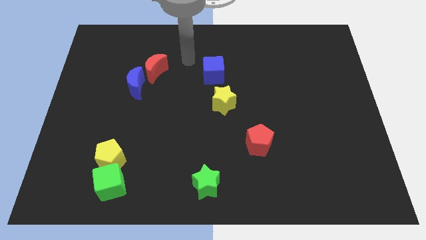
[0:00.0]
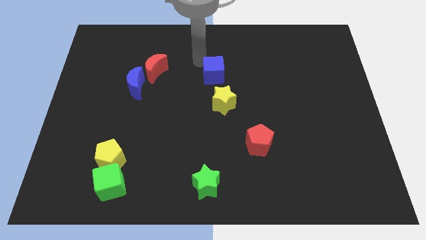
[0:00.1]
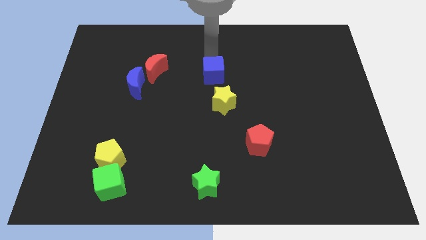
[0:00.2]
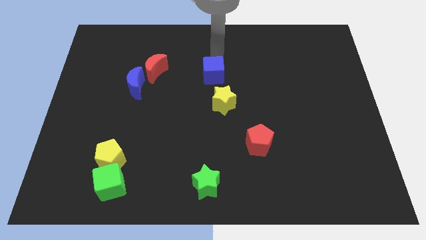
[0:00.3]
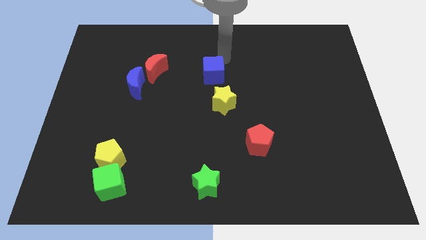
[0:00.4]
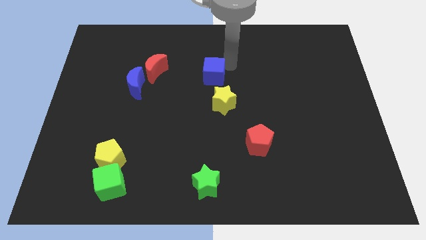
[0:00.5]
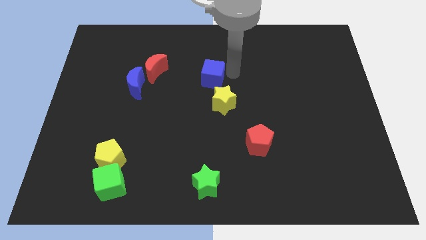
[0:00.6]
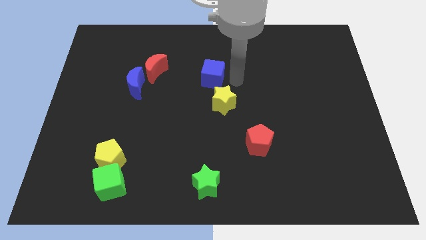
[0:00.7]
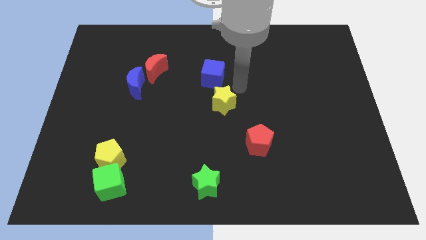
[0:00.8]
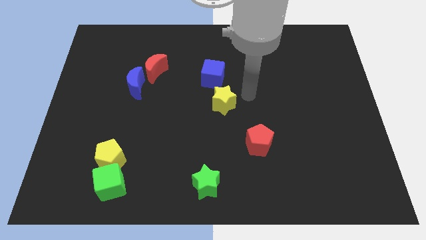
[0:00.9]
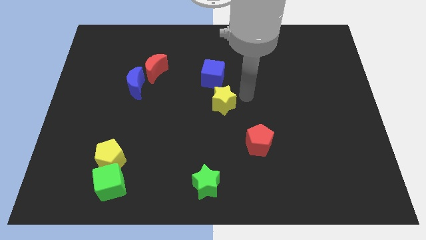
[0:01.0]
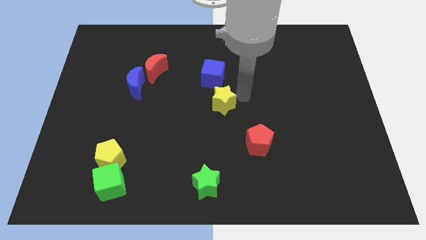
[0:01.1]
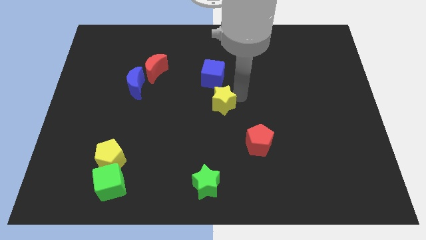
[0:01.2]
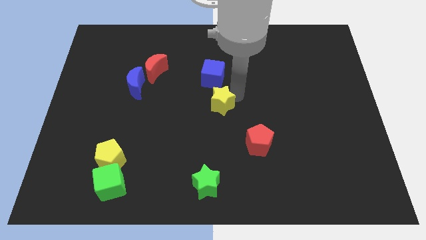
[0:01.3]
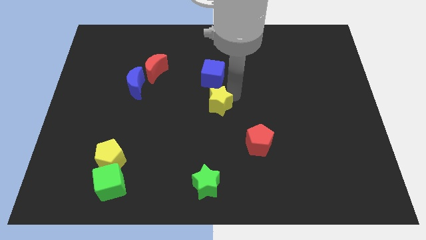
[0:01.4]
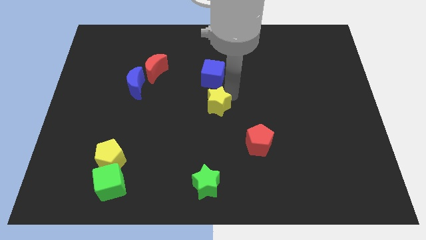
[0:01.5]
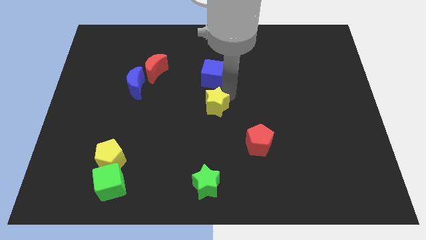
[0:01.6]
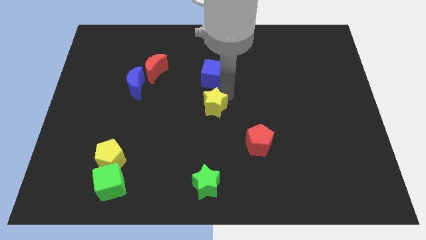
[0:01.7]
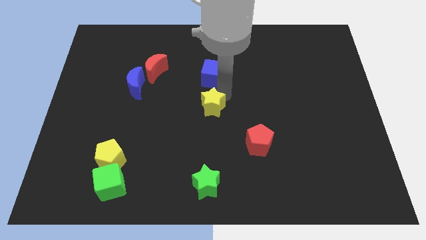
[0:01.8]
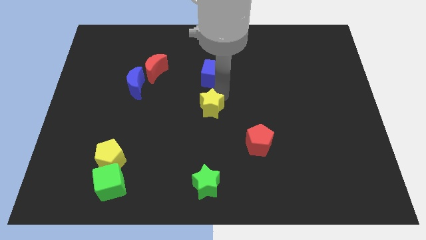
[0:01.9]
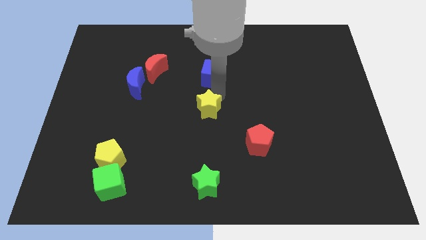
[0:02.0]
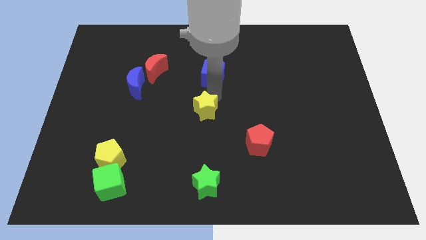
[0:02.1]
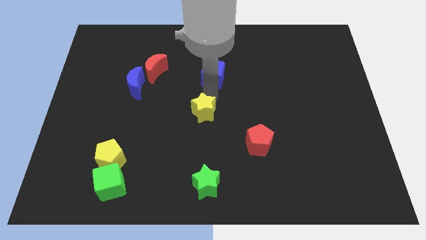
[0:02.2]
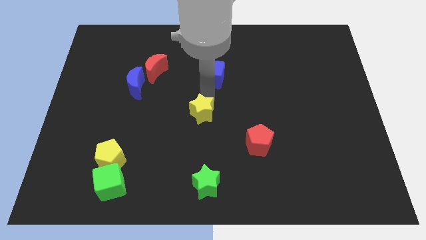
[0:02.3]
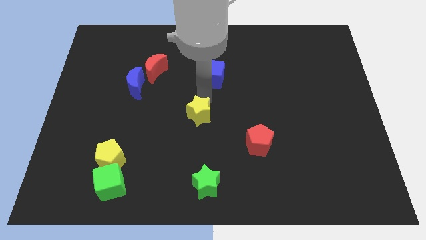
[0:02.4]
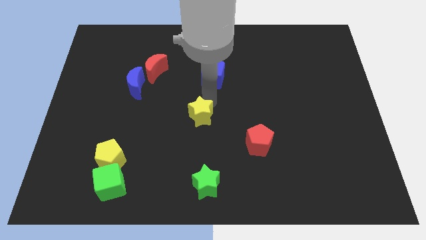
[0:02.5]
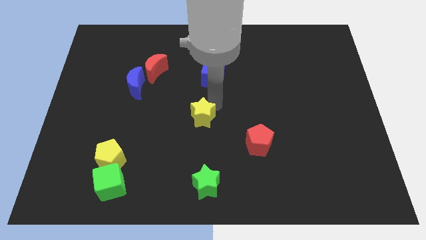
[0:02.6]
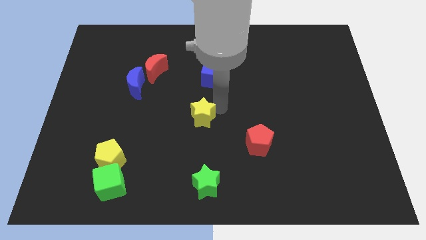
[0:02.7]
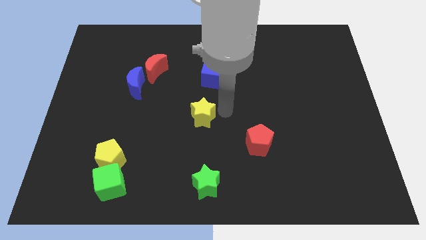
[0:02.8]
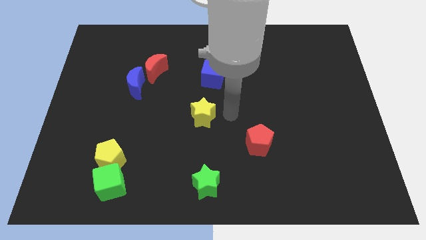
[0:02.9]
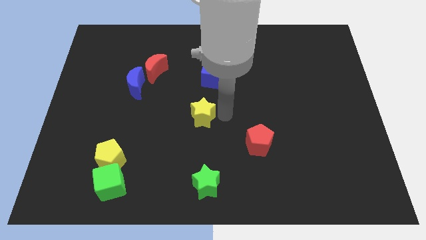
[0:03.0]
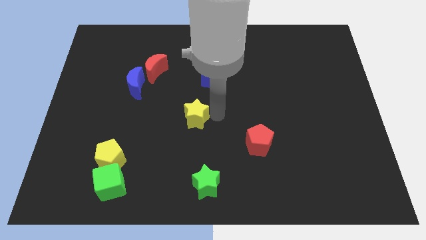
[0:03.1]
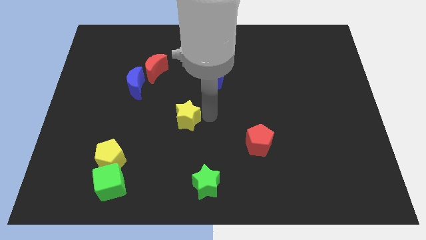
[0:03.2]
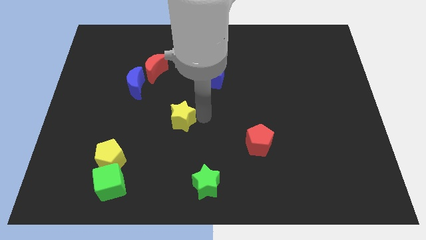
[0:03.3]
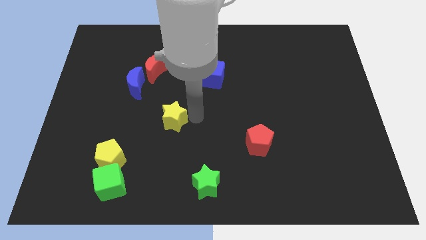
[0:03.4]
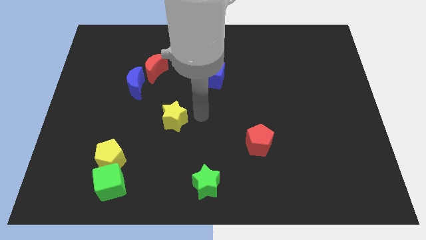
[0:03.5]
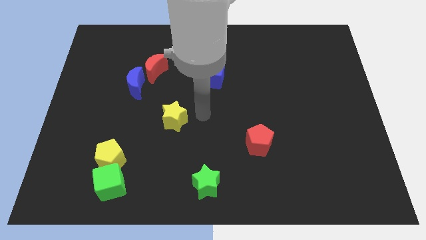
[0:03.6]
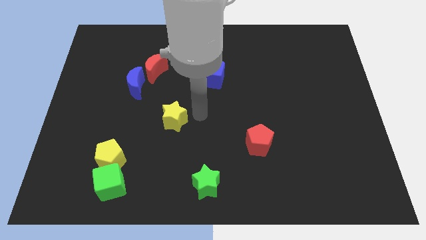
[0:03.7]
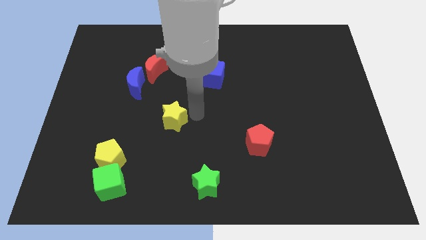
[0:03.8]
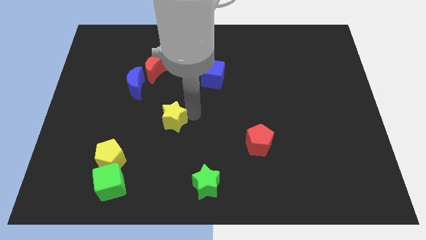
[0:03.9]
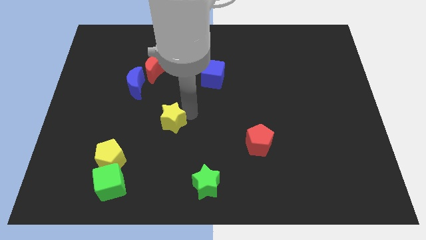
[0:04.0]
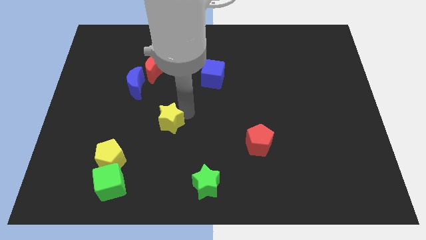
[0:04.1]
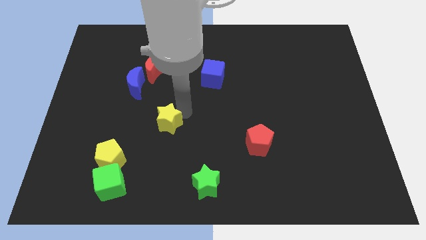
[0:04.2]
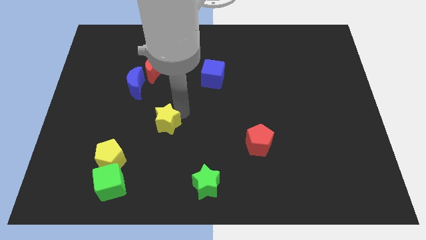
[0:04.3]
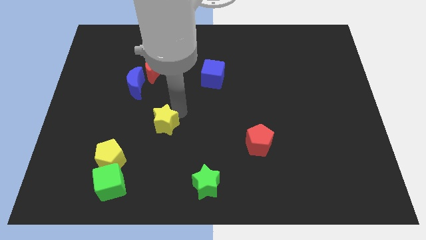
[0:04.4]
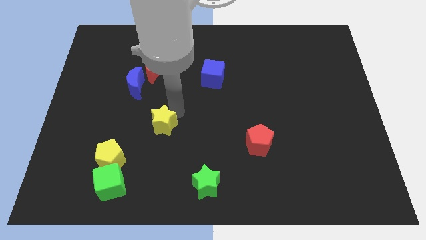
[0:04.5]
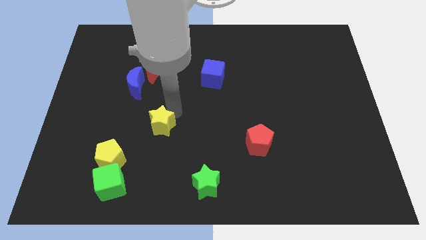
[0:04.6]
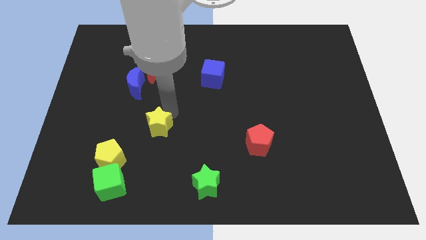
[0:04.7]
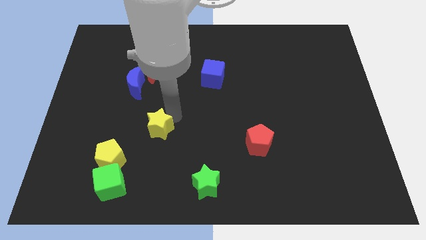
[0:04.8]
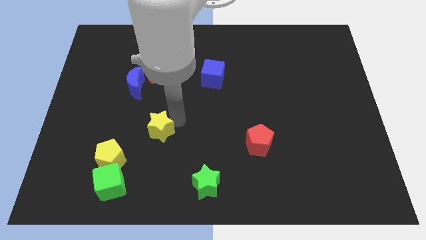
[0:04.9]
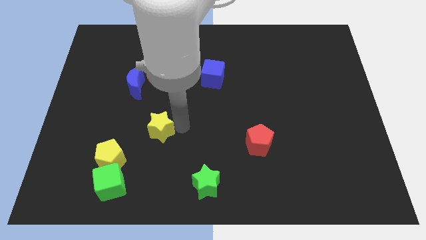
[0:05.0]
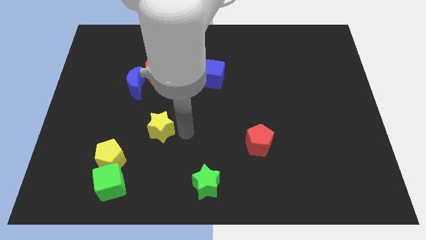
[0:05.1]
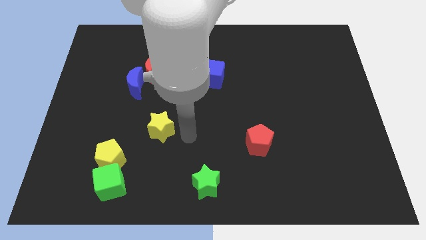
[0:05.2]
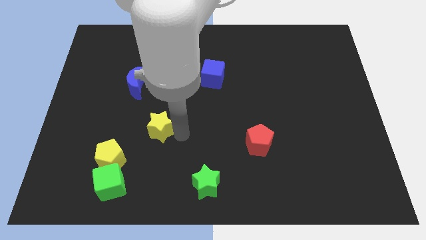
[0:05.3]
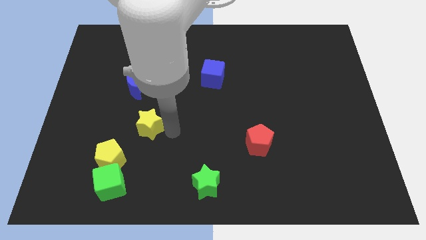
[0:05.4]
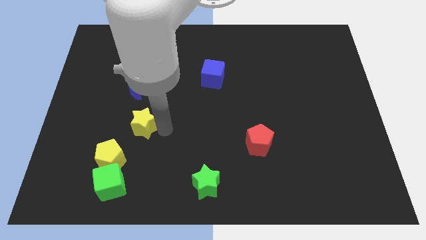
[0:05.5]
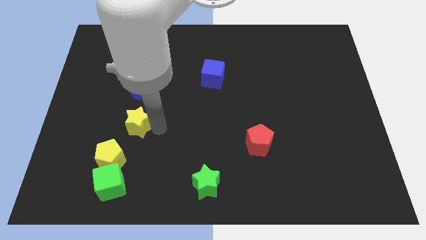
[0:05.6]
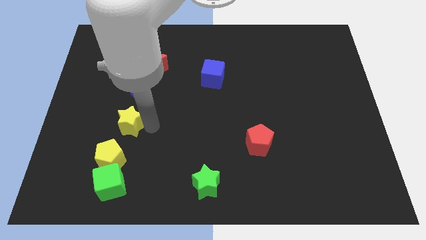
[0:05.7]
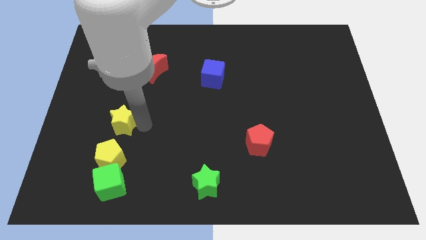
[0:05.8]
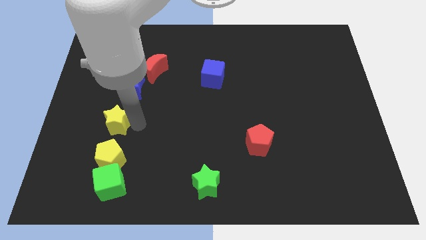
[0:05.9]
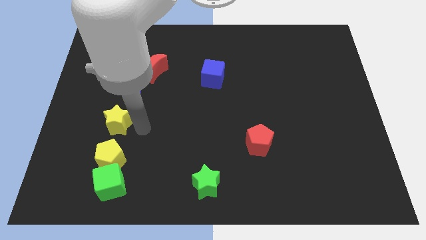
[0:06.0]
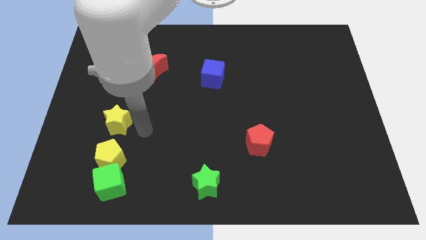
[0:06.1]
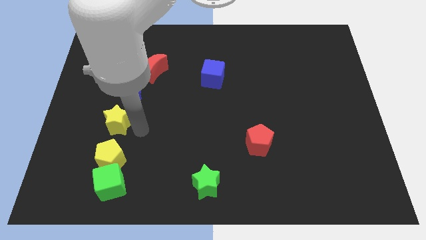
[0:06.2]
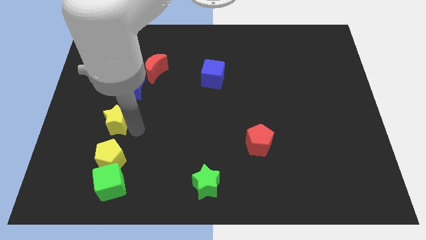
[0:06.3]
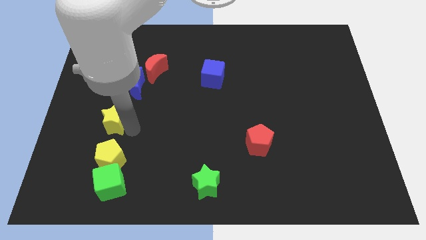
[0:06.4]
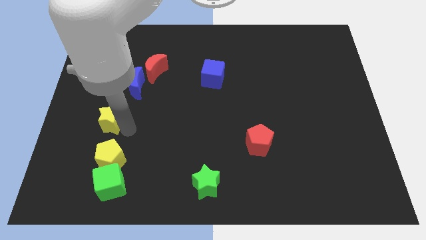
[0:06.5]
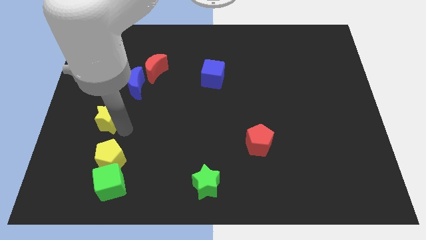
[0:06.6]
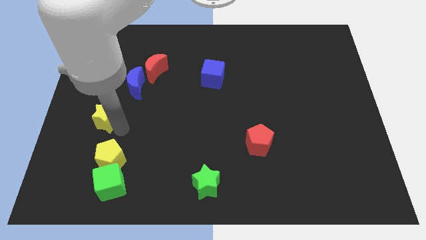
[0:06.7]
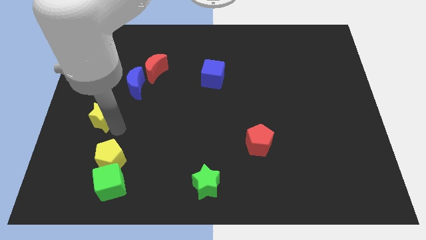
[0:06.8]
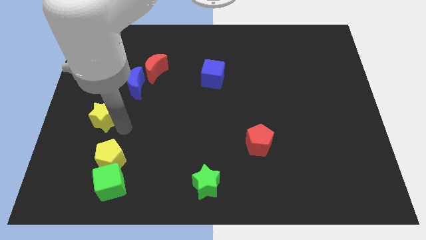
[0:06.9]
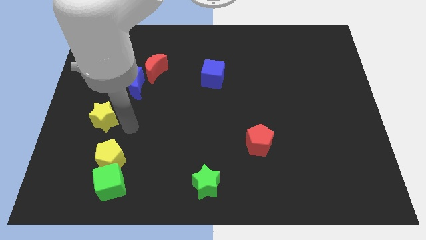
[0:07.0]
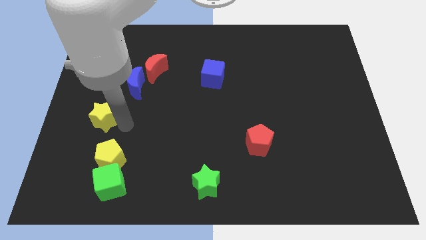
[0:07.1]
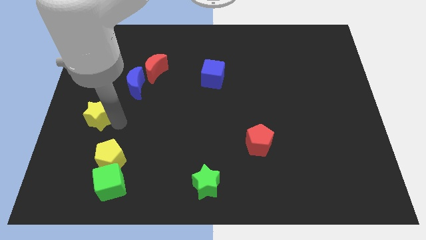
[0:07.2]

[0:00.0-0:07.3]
push the yellow star to the center left
